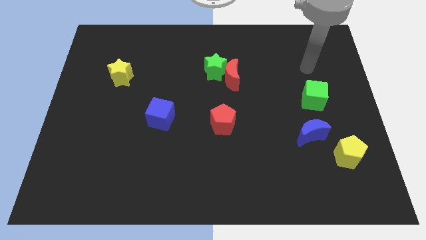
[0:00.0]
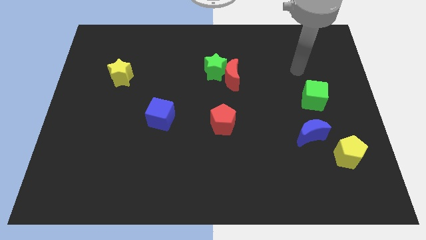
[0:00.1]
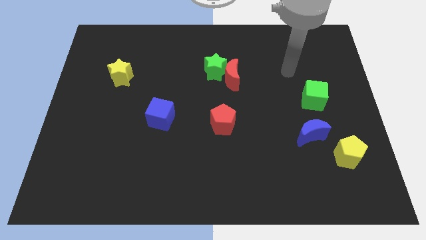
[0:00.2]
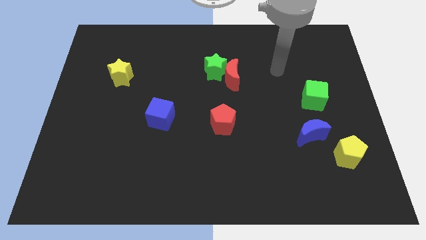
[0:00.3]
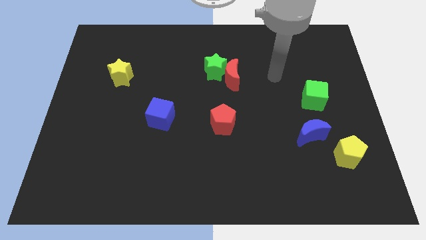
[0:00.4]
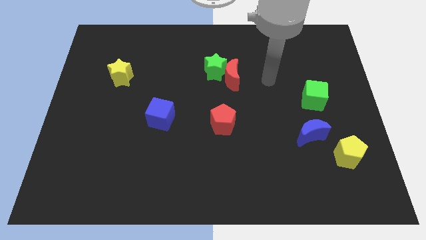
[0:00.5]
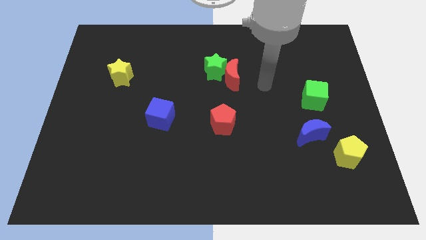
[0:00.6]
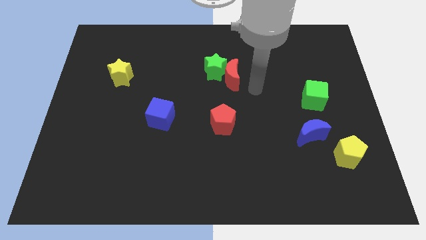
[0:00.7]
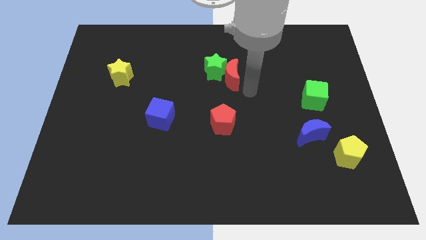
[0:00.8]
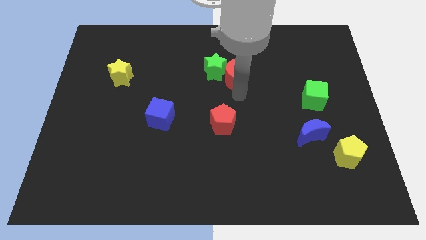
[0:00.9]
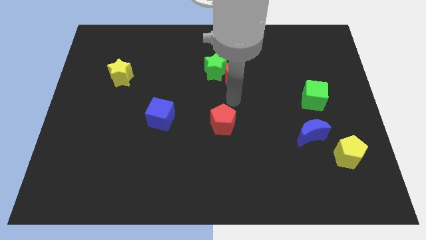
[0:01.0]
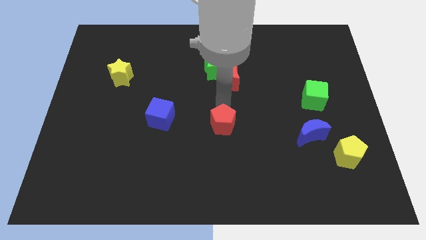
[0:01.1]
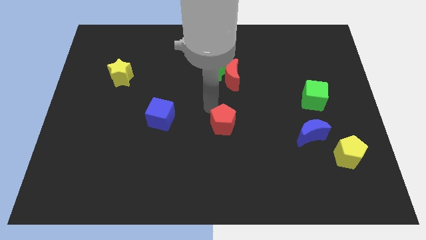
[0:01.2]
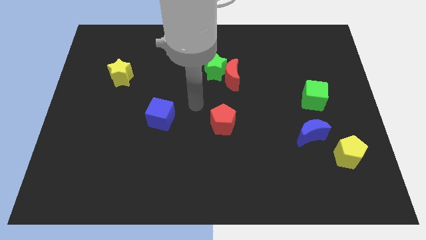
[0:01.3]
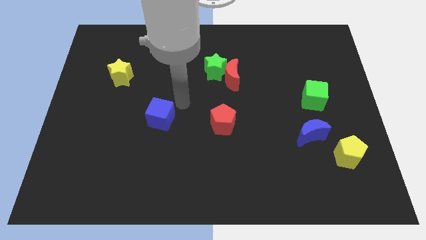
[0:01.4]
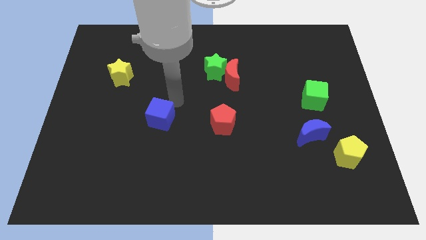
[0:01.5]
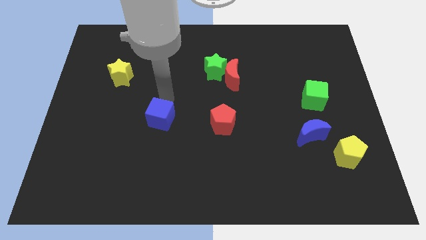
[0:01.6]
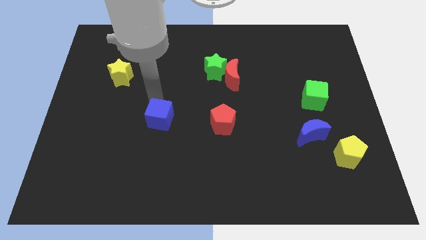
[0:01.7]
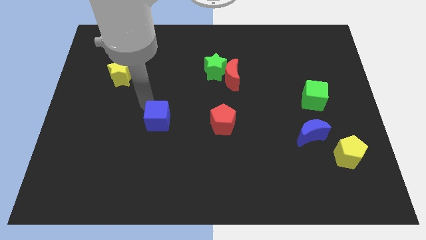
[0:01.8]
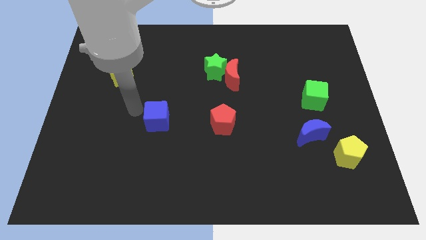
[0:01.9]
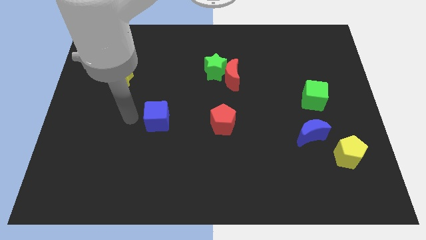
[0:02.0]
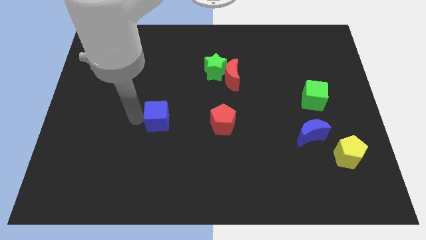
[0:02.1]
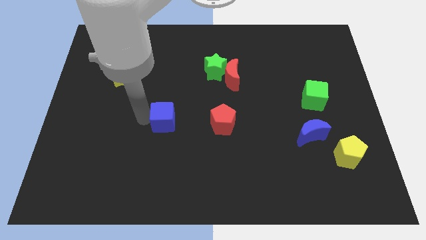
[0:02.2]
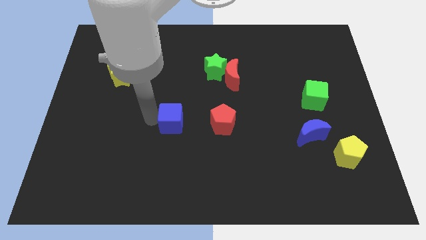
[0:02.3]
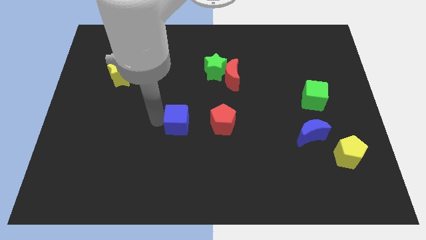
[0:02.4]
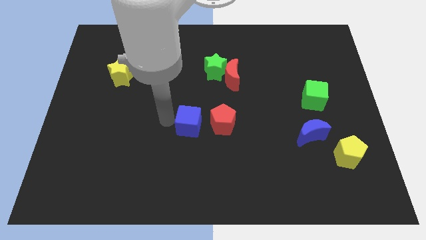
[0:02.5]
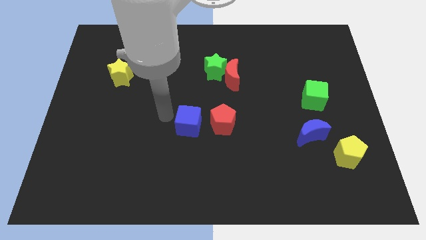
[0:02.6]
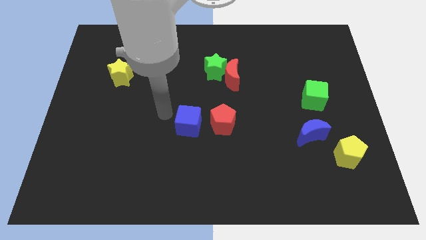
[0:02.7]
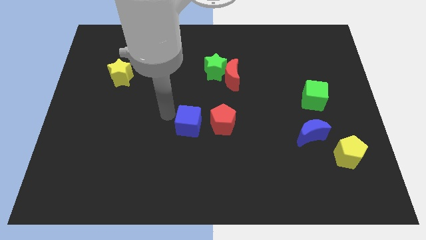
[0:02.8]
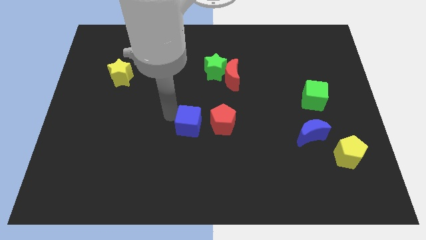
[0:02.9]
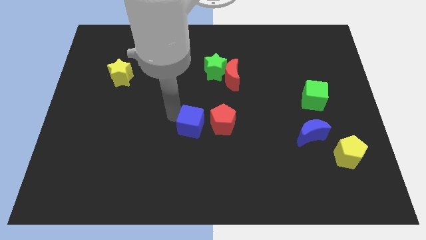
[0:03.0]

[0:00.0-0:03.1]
slightly move the blue cube right

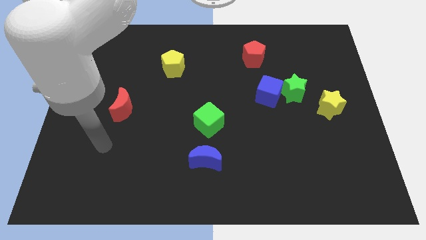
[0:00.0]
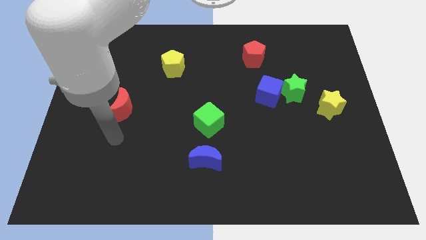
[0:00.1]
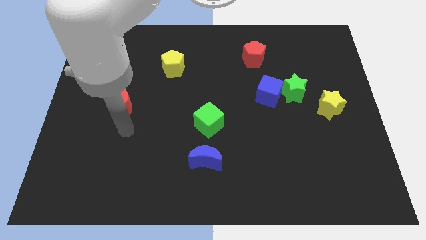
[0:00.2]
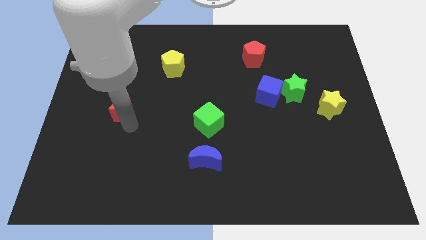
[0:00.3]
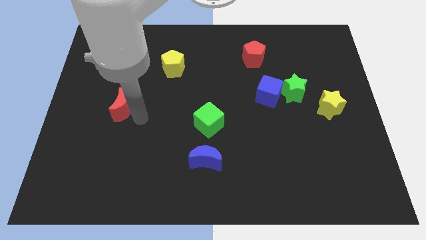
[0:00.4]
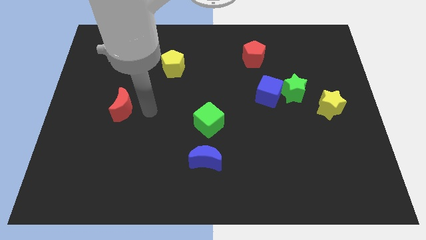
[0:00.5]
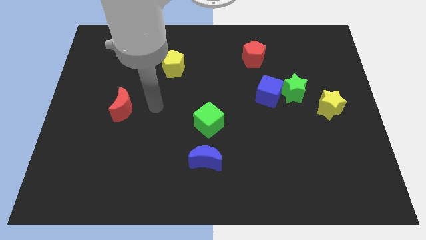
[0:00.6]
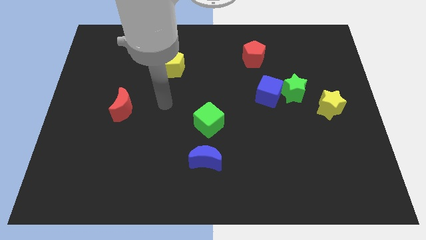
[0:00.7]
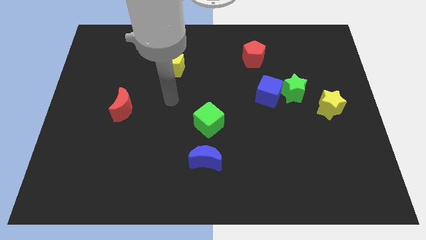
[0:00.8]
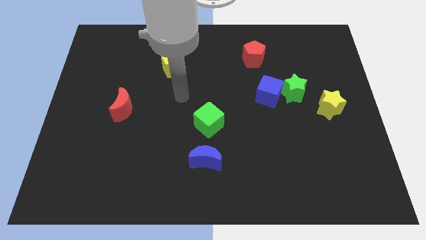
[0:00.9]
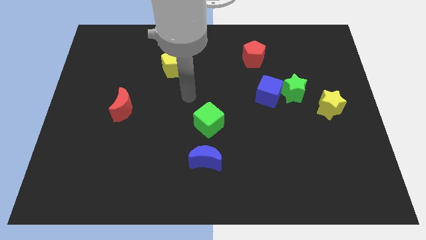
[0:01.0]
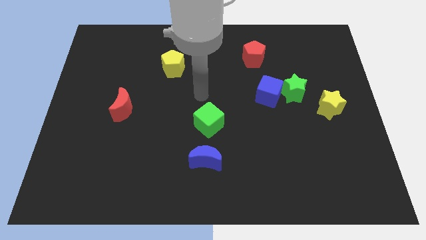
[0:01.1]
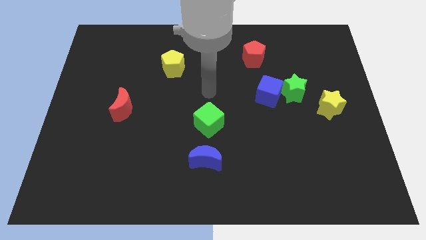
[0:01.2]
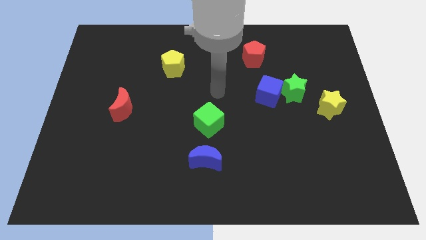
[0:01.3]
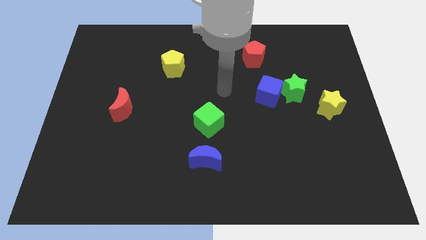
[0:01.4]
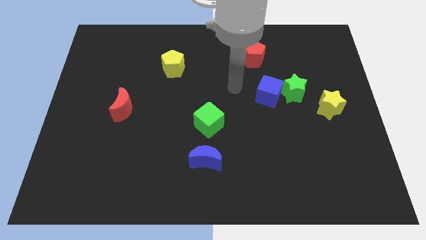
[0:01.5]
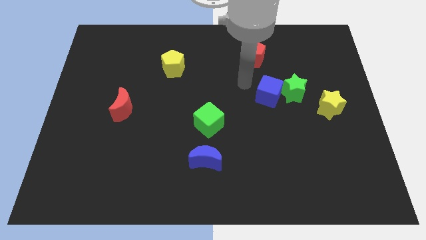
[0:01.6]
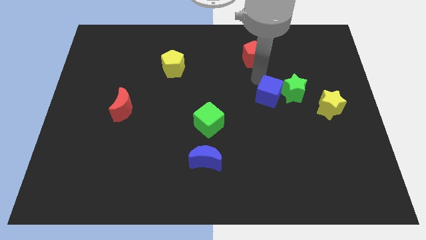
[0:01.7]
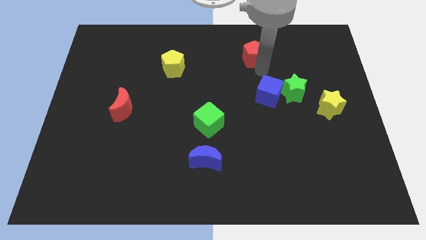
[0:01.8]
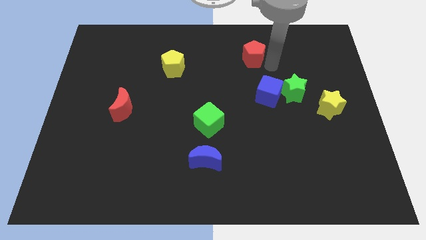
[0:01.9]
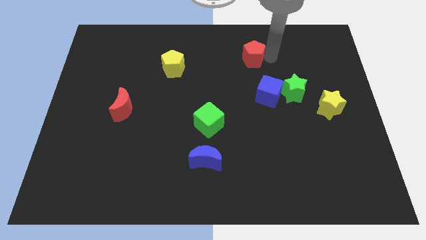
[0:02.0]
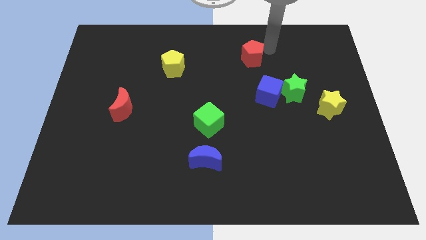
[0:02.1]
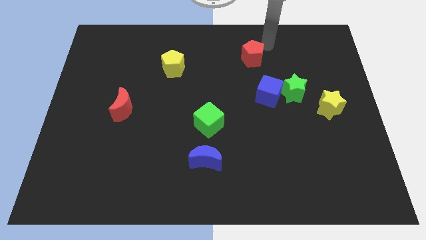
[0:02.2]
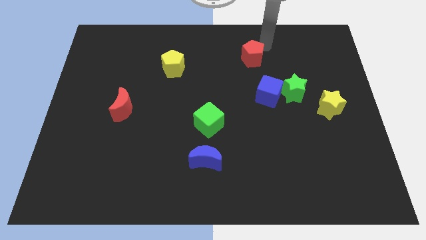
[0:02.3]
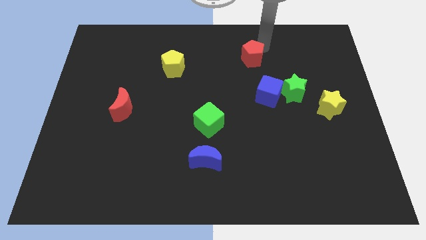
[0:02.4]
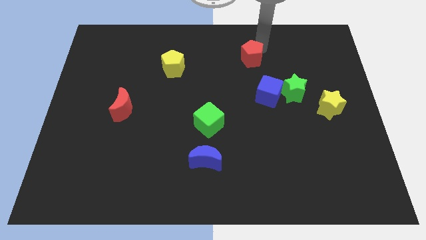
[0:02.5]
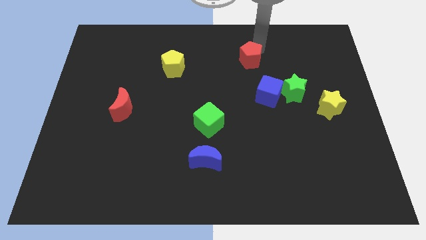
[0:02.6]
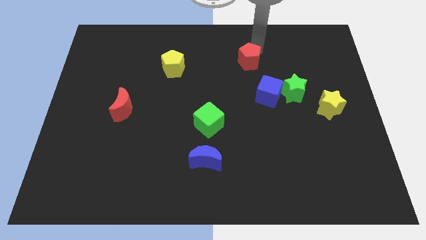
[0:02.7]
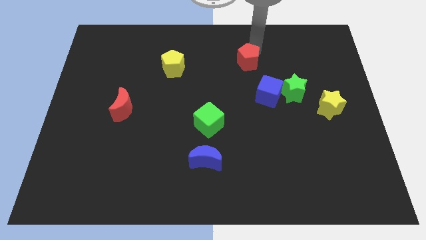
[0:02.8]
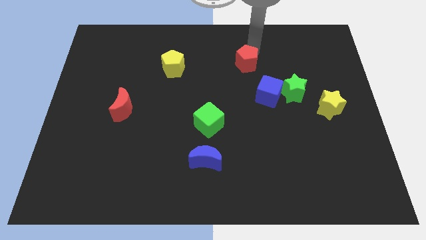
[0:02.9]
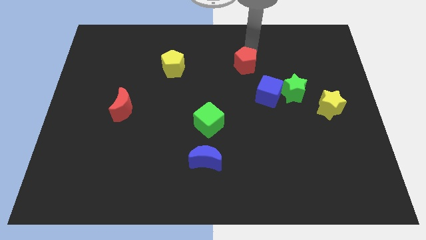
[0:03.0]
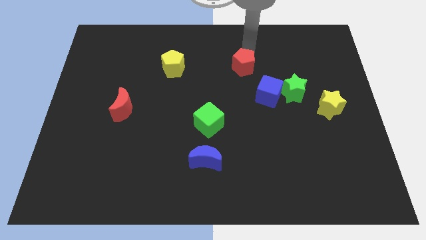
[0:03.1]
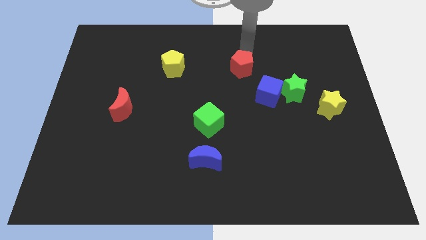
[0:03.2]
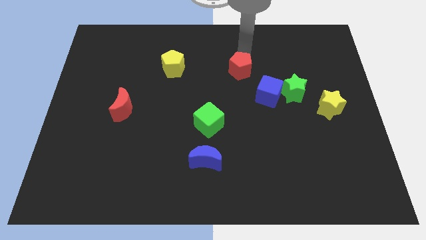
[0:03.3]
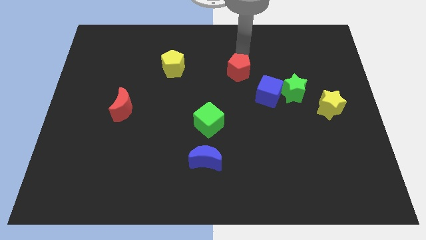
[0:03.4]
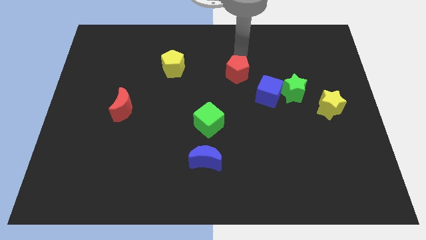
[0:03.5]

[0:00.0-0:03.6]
push the red pentagon downwards and then left slightly

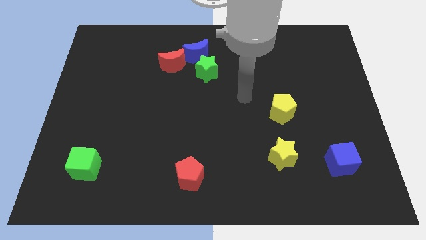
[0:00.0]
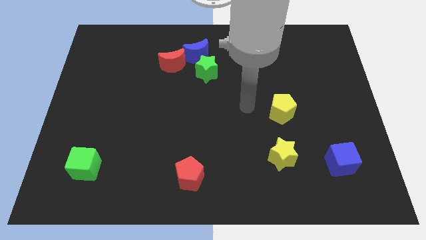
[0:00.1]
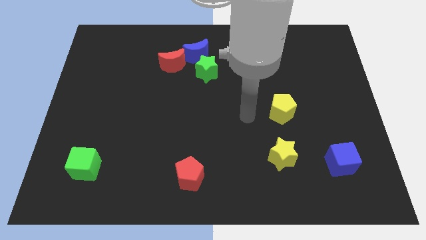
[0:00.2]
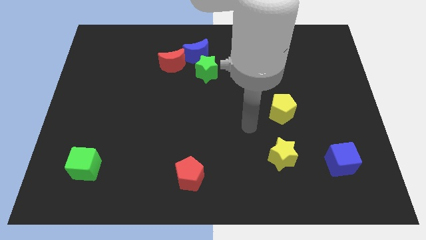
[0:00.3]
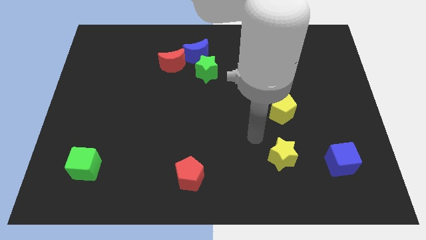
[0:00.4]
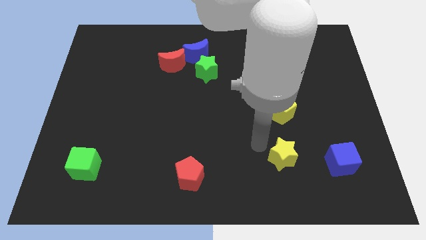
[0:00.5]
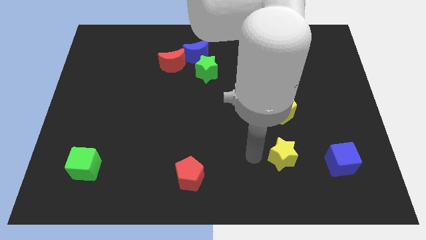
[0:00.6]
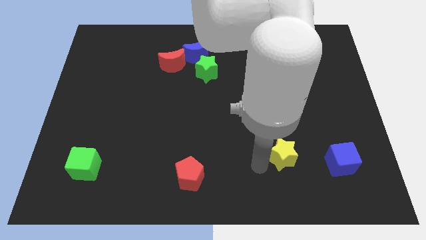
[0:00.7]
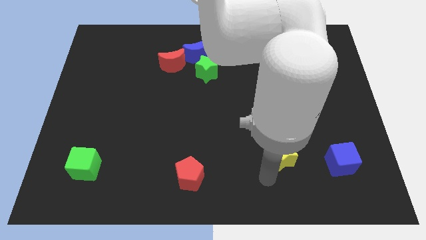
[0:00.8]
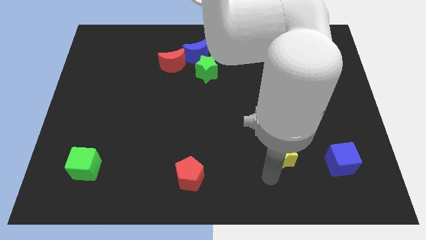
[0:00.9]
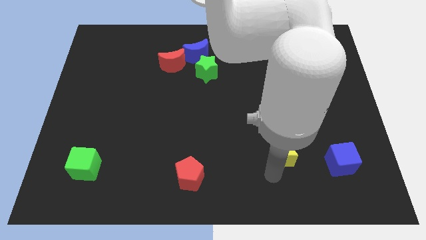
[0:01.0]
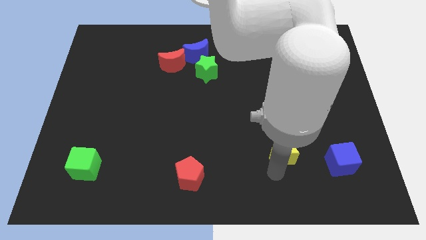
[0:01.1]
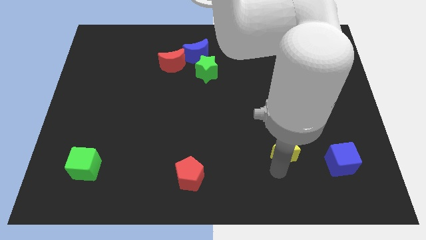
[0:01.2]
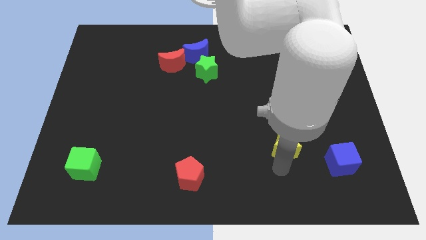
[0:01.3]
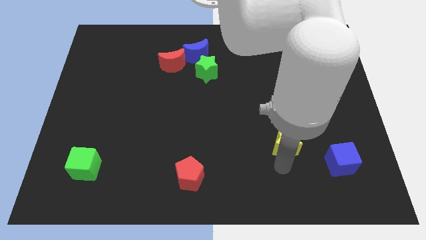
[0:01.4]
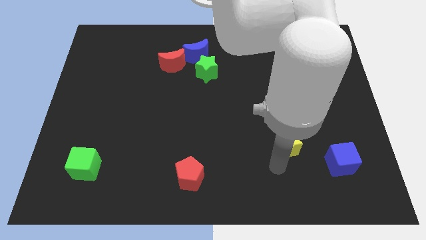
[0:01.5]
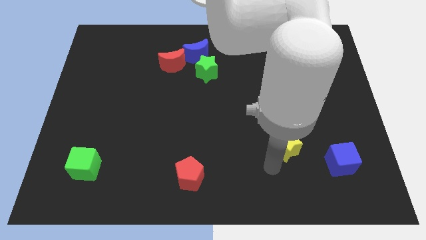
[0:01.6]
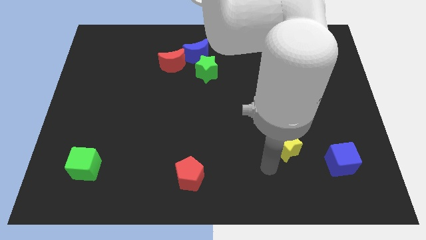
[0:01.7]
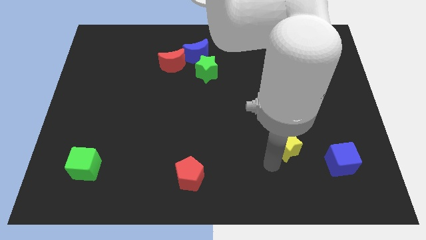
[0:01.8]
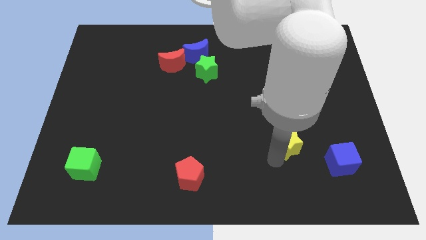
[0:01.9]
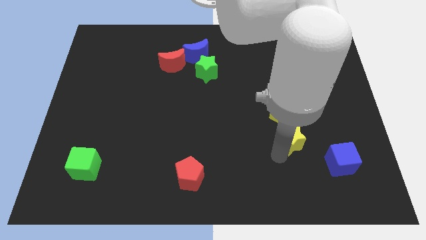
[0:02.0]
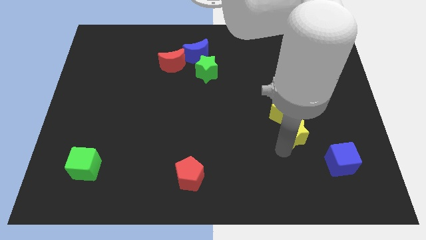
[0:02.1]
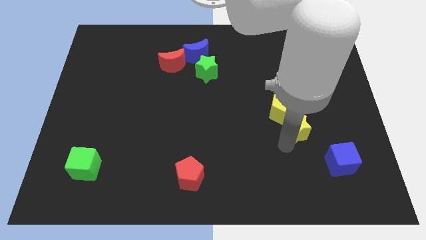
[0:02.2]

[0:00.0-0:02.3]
slightly slide the yellow star diagonally upwards and right
